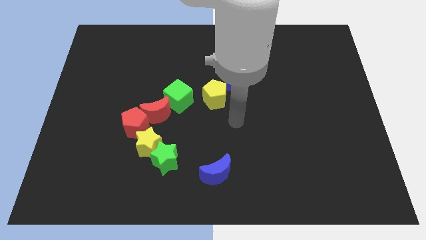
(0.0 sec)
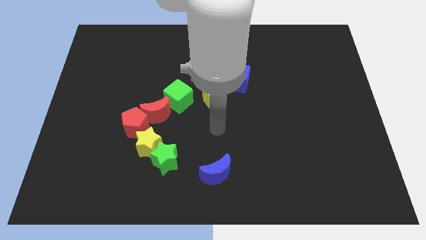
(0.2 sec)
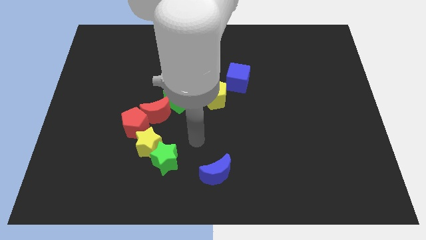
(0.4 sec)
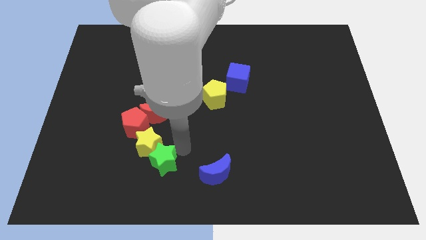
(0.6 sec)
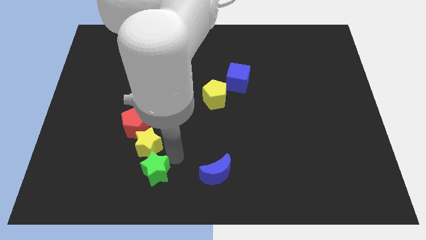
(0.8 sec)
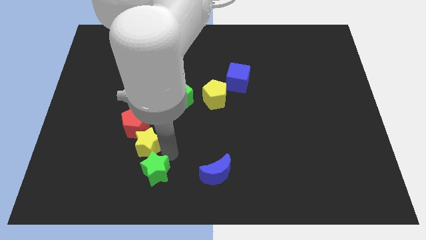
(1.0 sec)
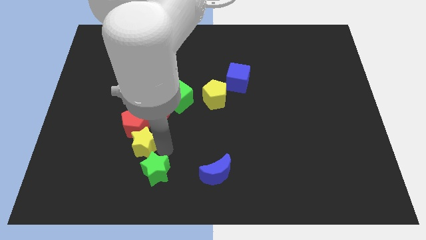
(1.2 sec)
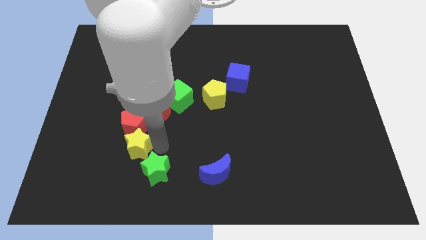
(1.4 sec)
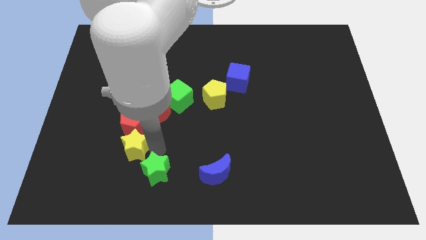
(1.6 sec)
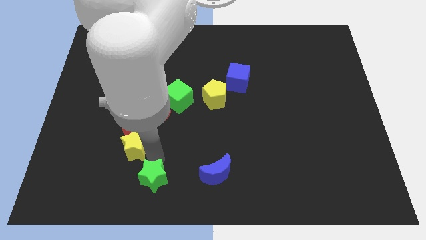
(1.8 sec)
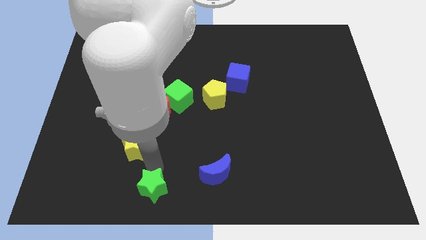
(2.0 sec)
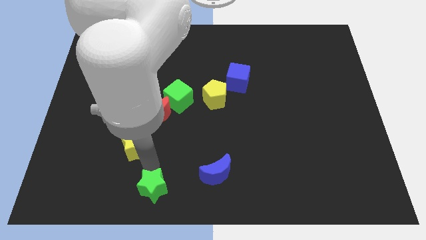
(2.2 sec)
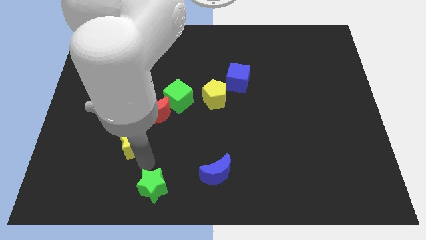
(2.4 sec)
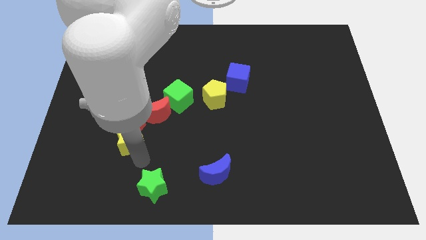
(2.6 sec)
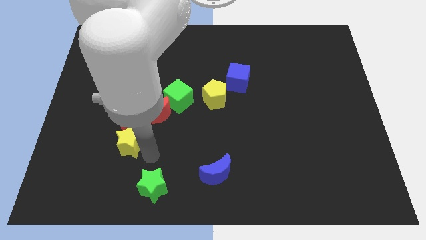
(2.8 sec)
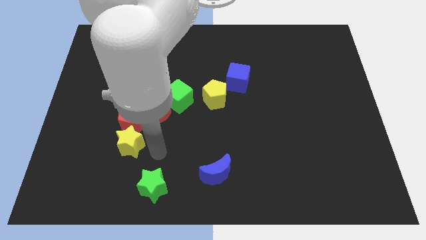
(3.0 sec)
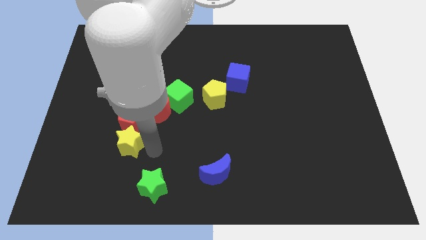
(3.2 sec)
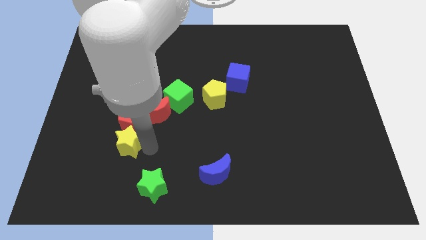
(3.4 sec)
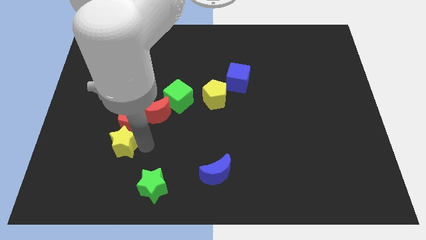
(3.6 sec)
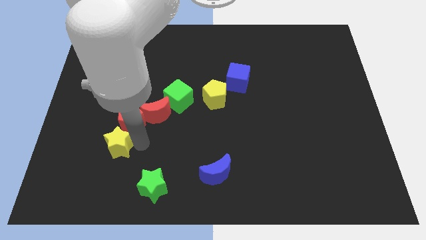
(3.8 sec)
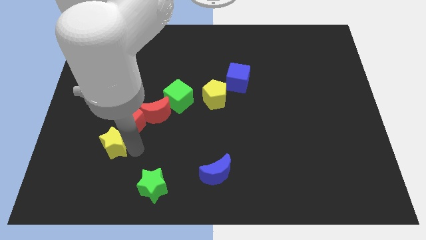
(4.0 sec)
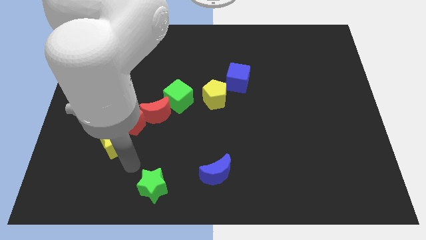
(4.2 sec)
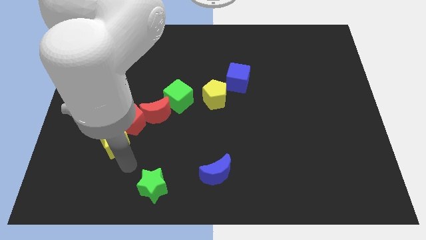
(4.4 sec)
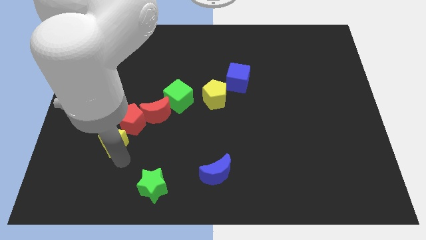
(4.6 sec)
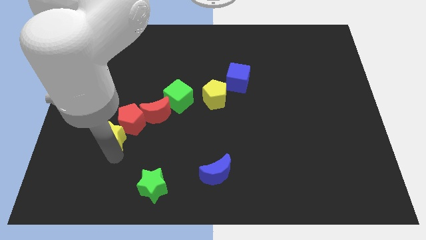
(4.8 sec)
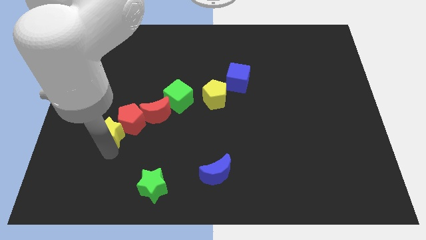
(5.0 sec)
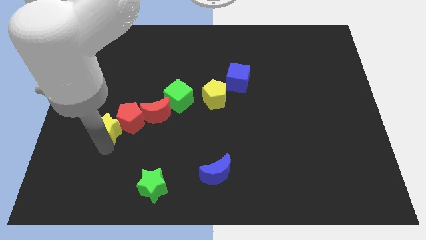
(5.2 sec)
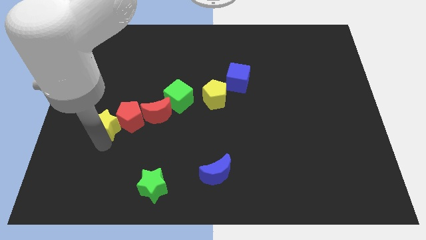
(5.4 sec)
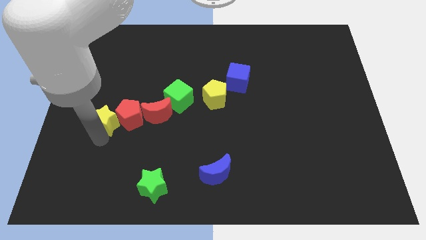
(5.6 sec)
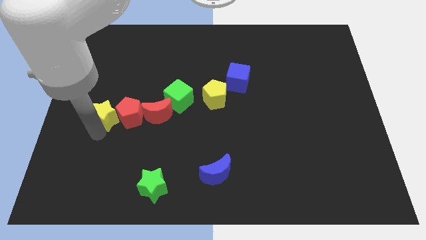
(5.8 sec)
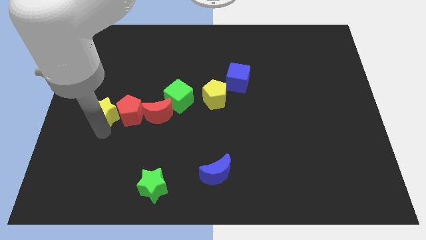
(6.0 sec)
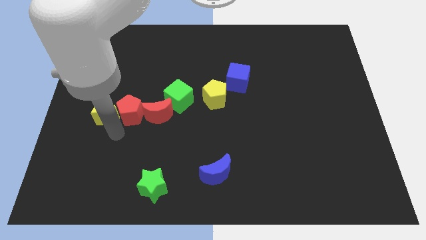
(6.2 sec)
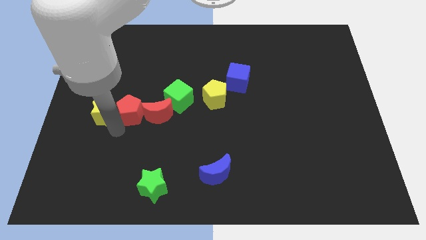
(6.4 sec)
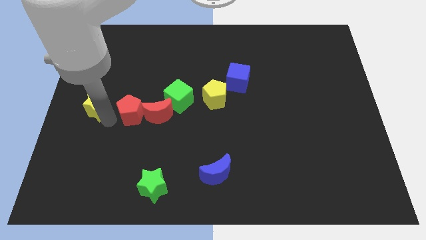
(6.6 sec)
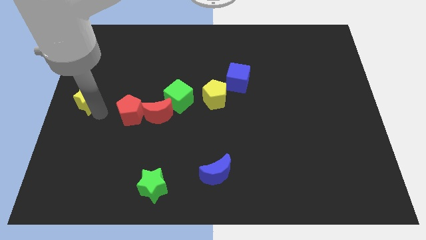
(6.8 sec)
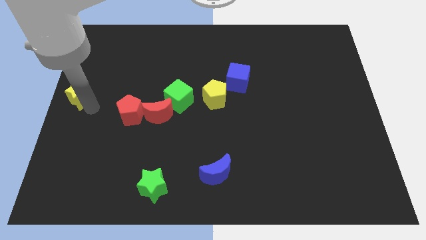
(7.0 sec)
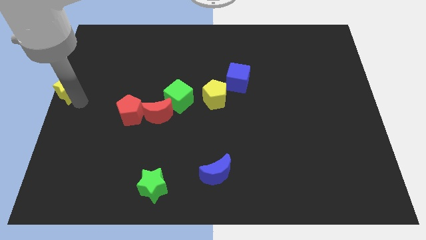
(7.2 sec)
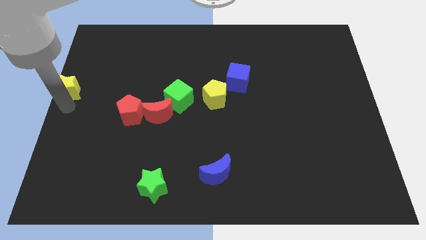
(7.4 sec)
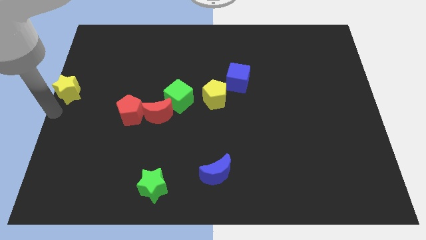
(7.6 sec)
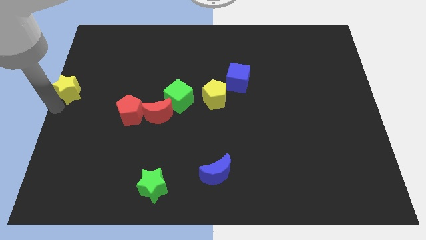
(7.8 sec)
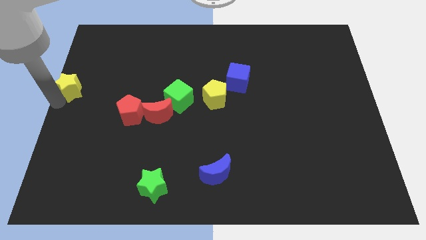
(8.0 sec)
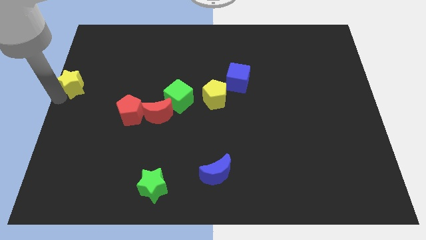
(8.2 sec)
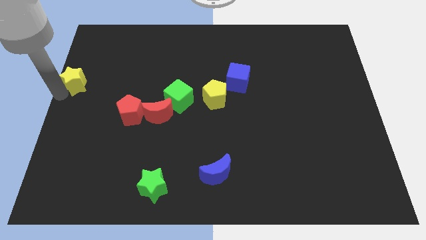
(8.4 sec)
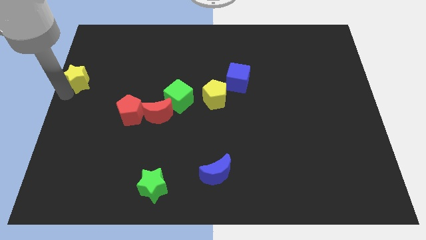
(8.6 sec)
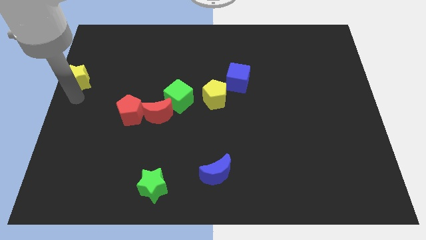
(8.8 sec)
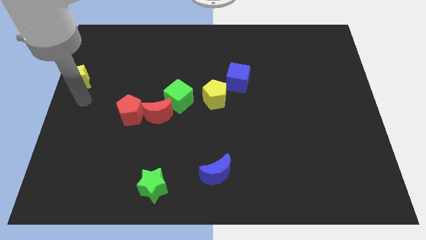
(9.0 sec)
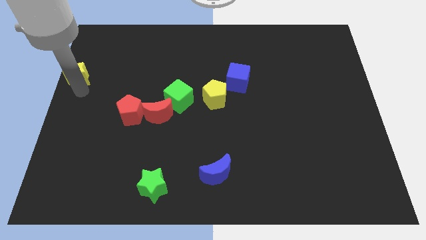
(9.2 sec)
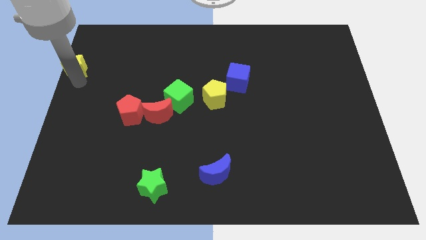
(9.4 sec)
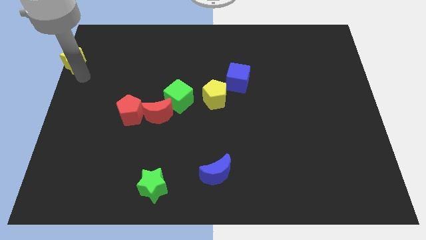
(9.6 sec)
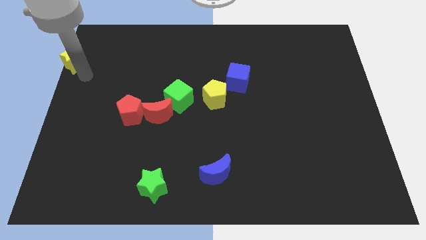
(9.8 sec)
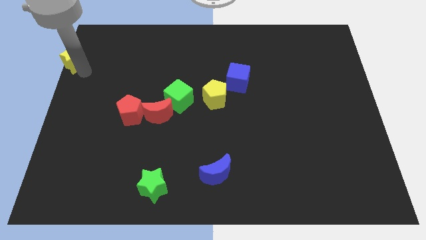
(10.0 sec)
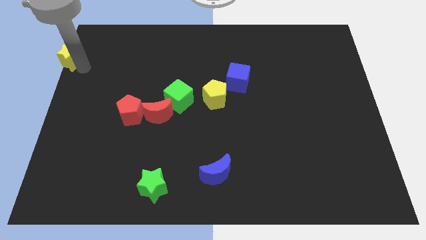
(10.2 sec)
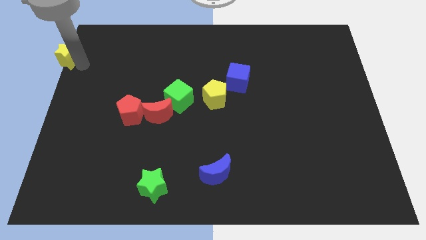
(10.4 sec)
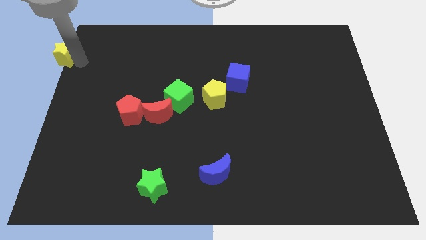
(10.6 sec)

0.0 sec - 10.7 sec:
push the yellow star to the top left
